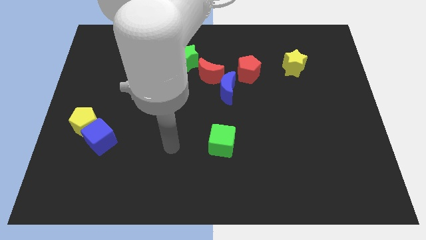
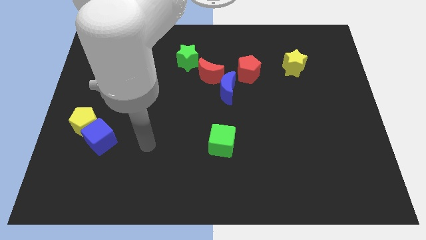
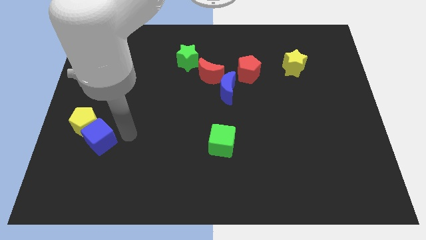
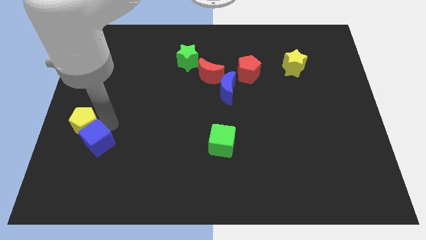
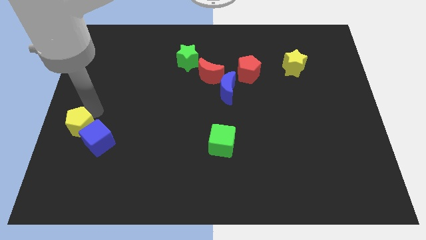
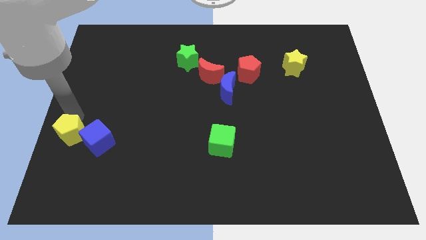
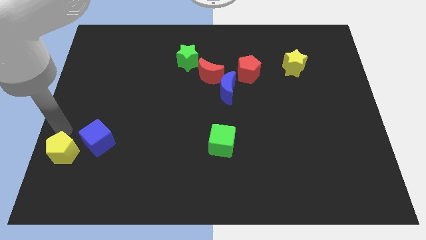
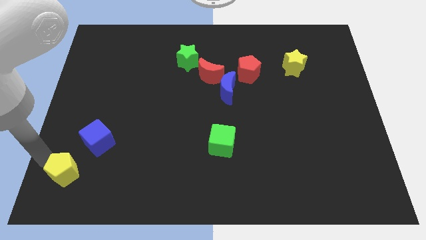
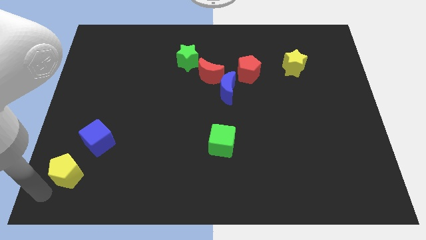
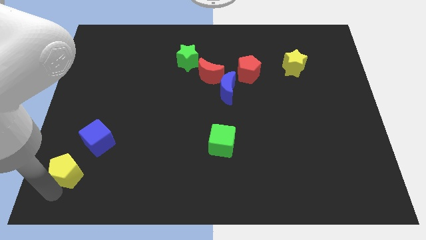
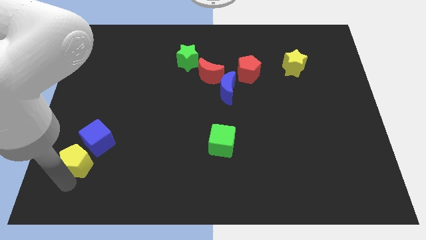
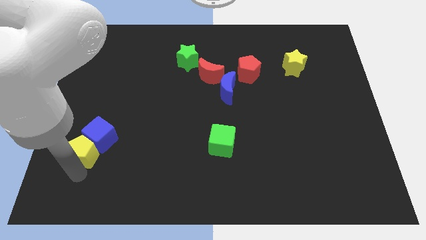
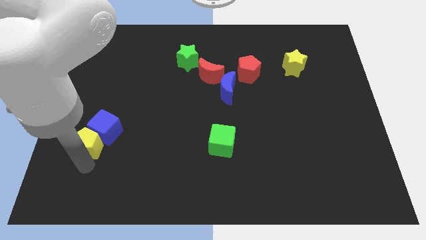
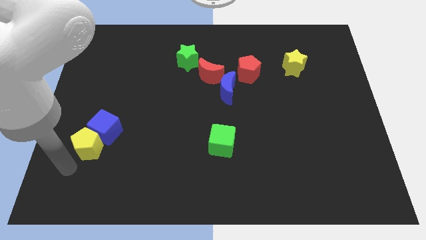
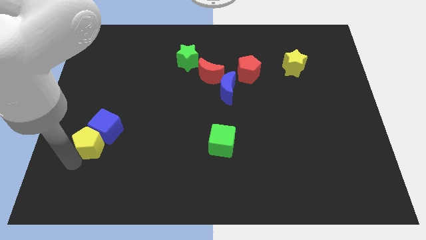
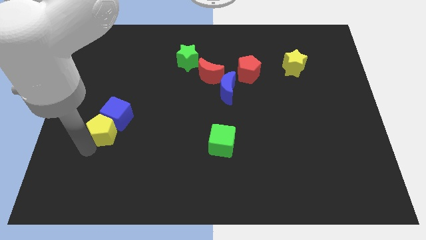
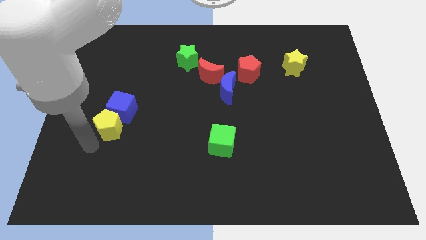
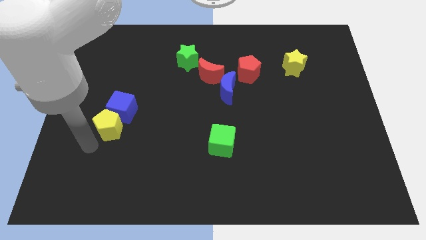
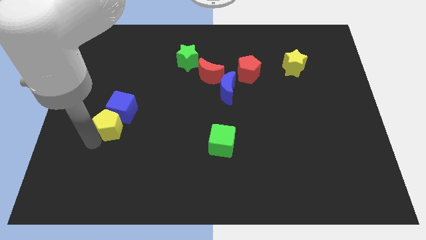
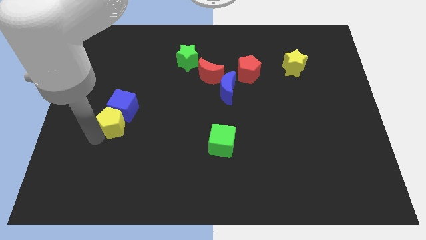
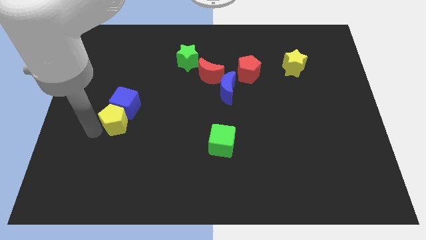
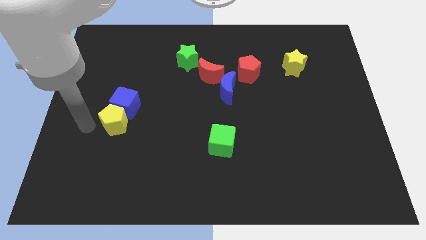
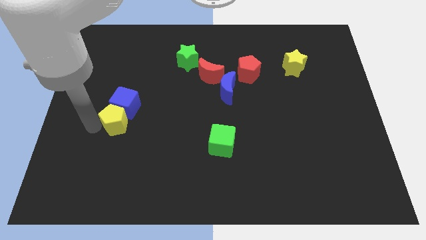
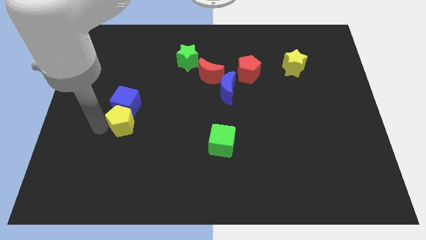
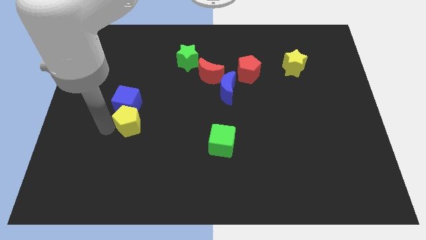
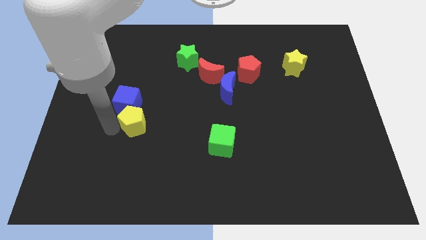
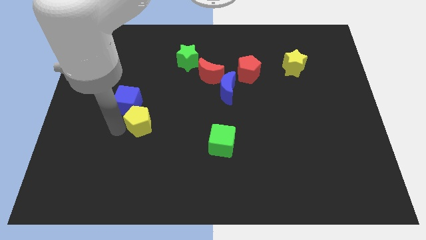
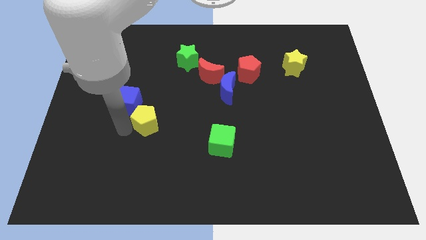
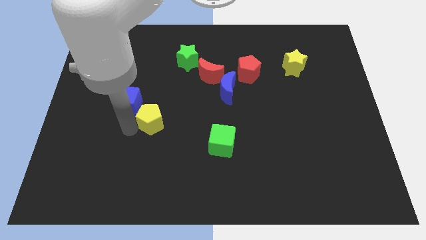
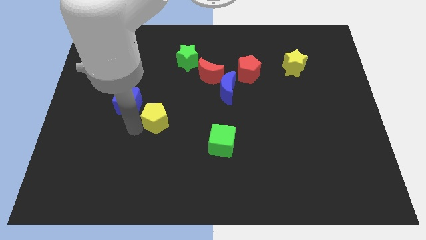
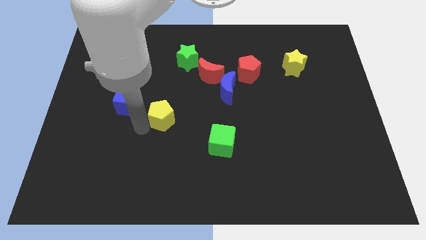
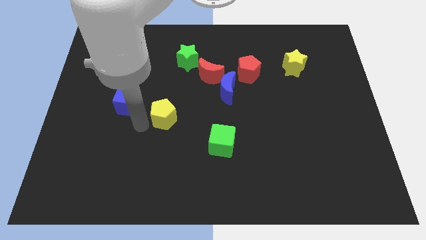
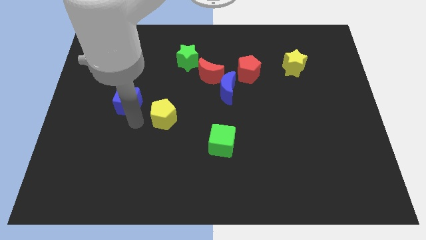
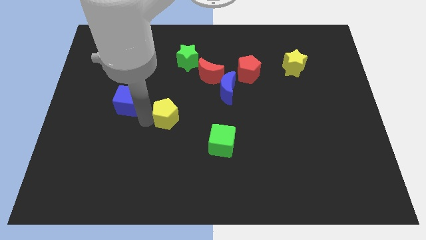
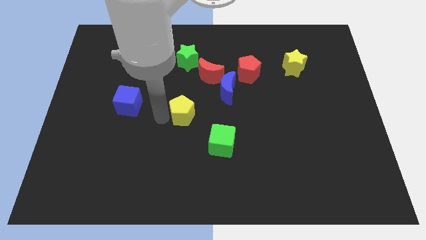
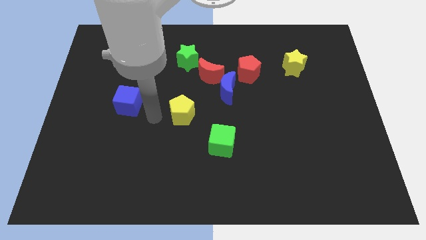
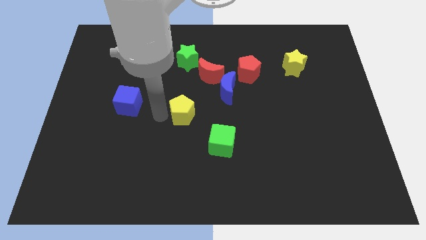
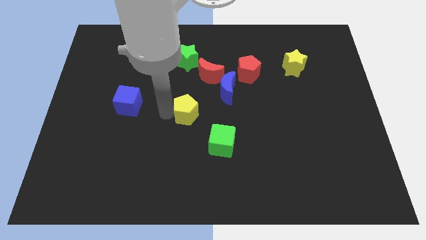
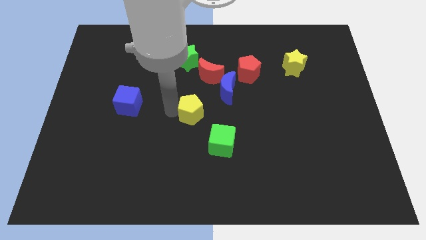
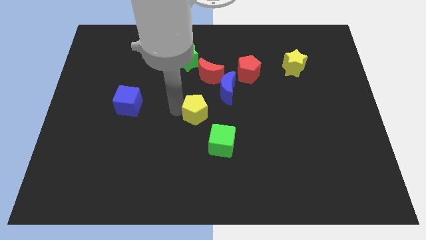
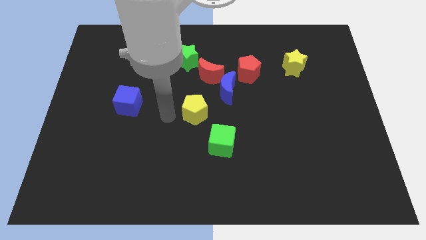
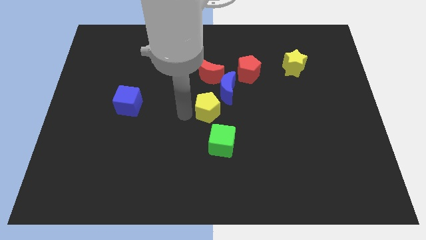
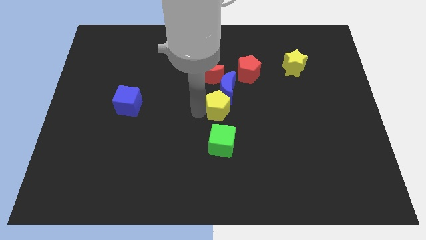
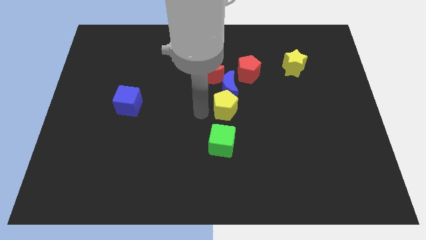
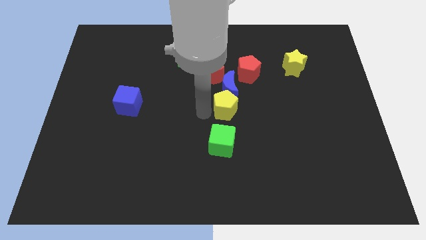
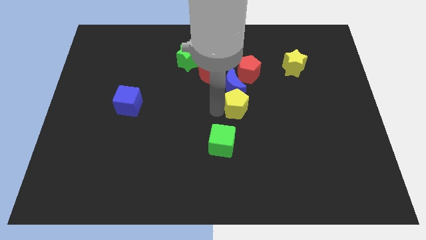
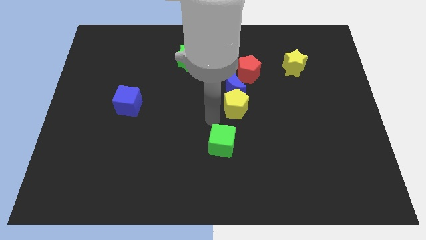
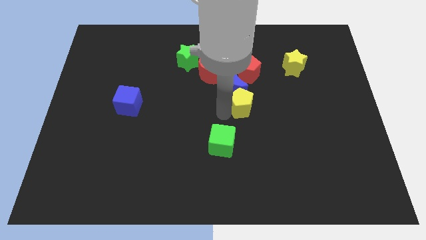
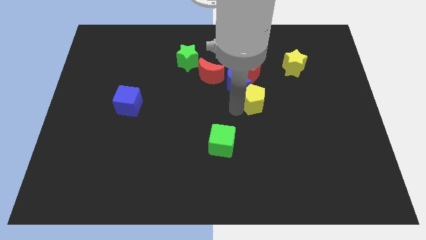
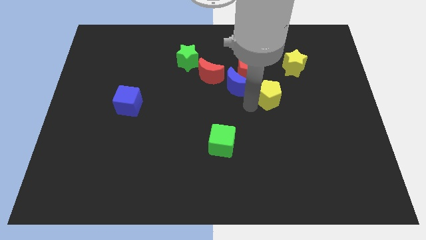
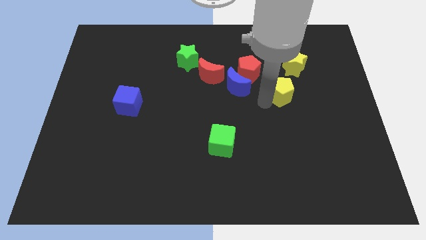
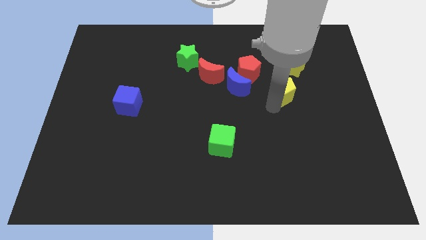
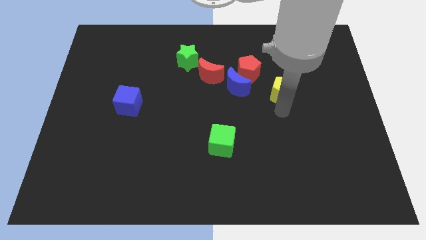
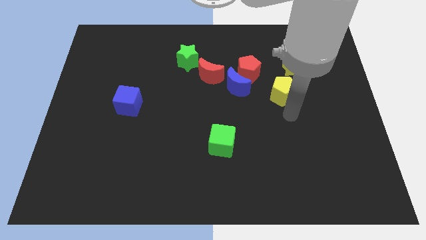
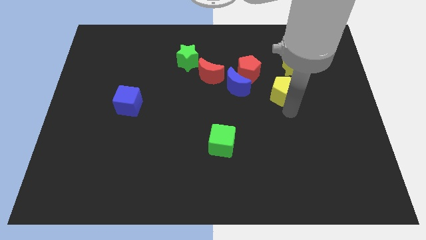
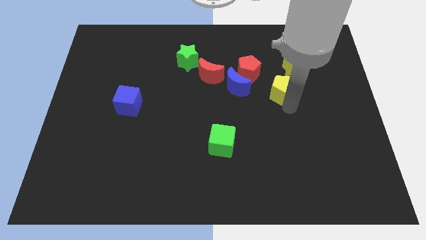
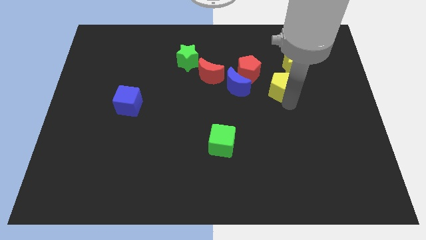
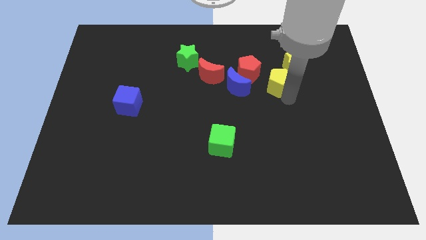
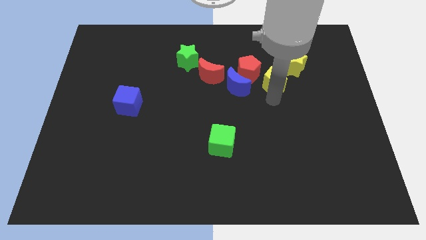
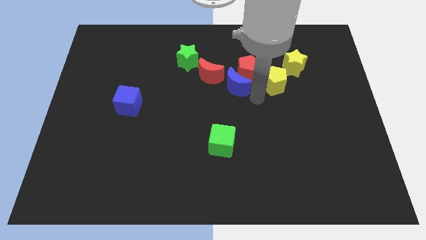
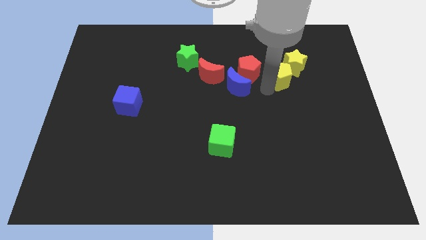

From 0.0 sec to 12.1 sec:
slide the yellow pentagon towards the yellow star

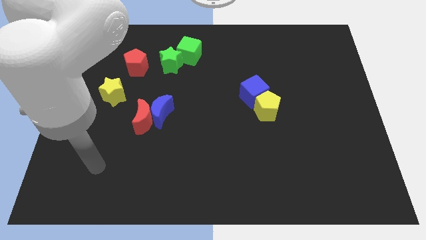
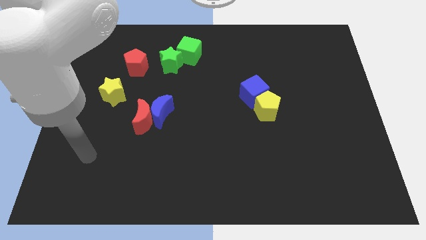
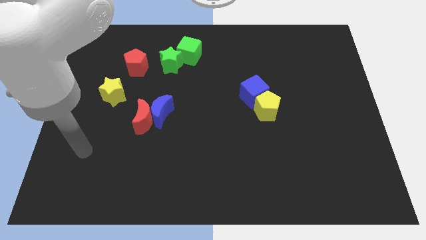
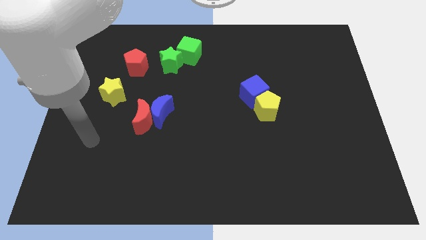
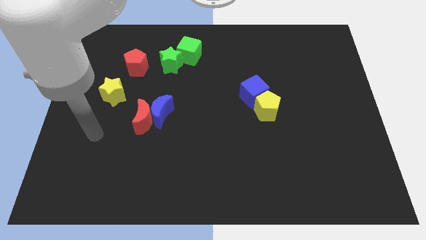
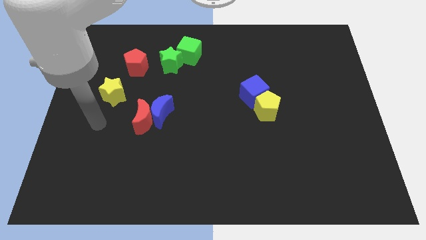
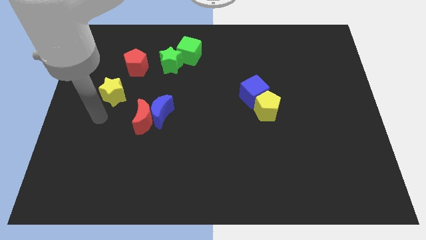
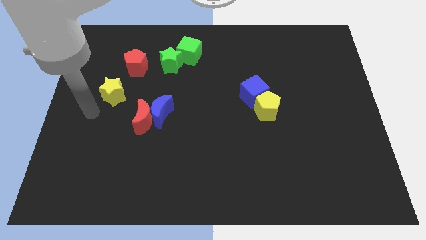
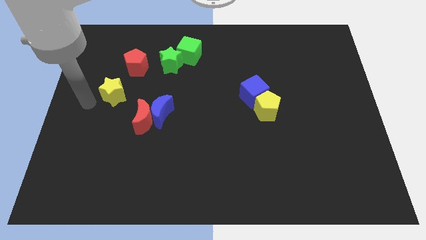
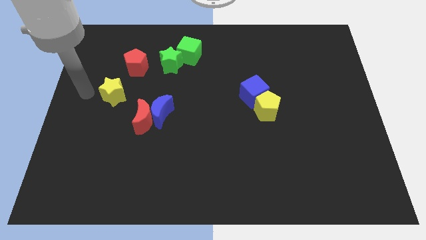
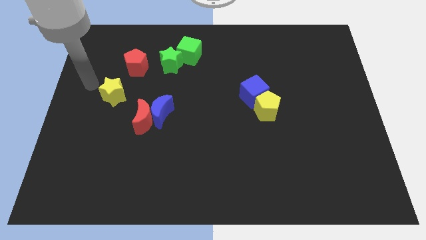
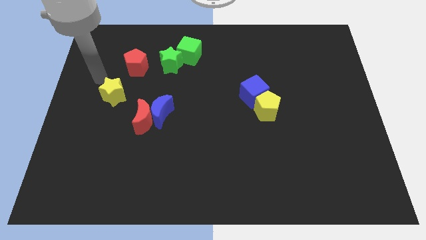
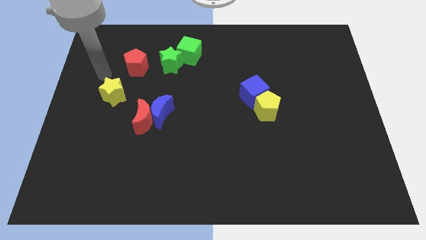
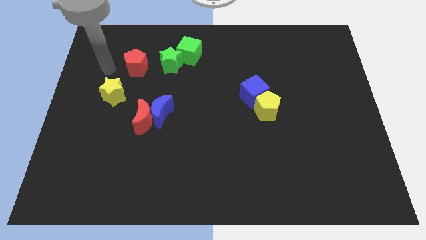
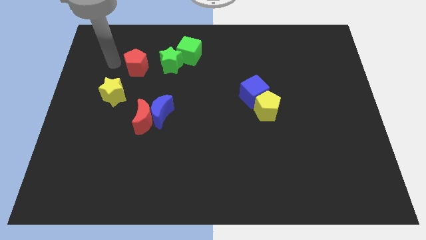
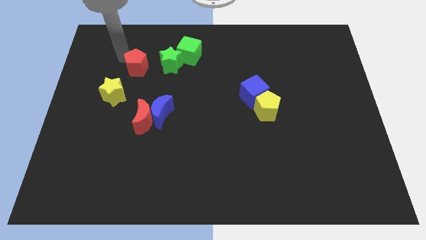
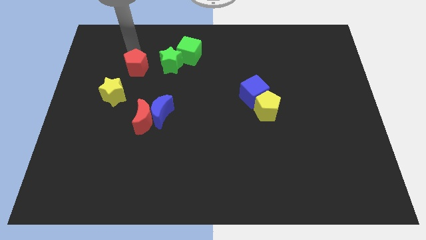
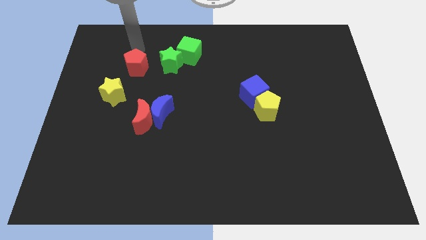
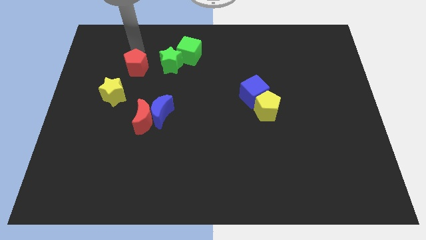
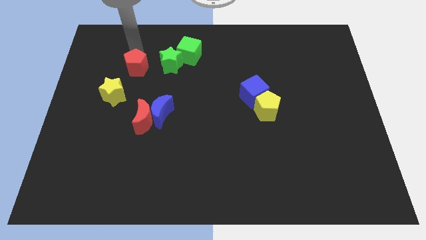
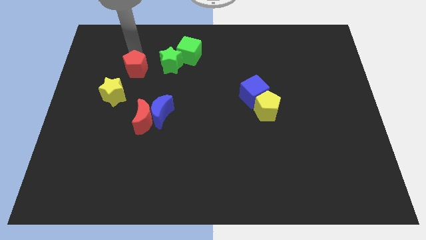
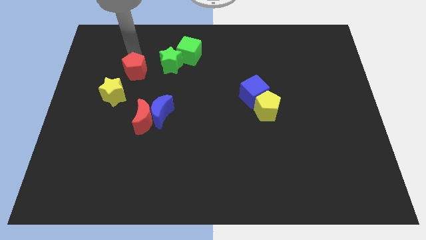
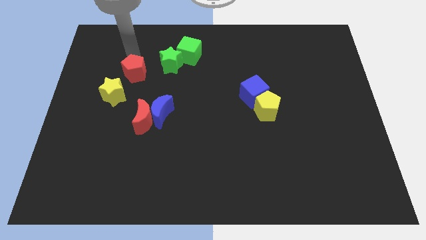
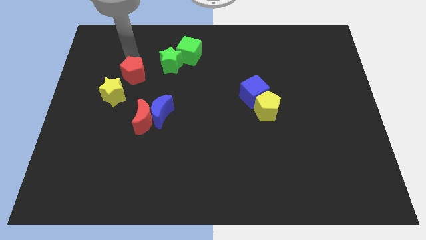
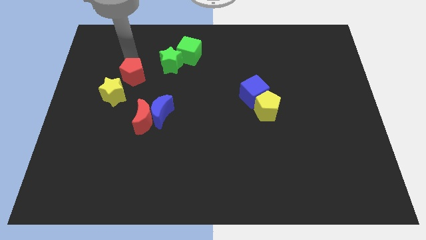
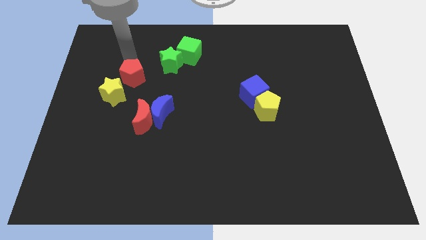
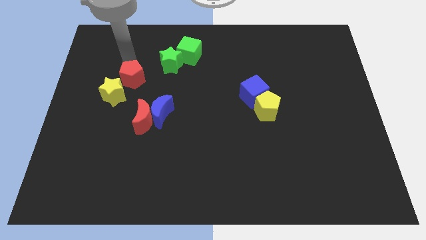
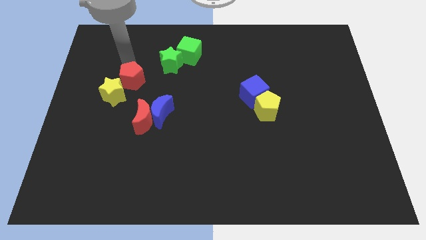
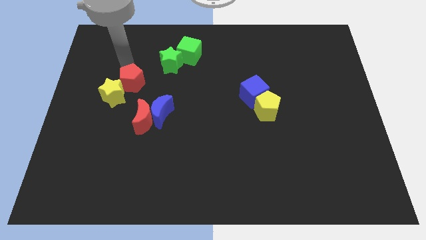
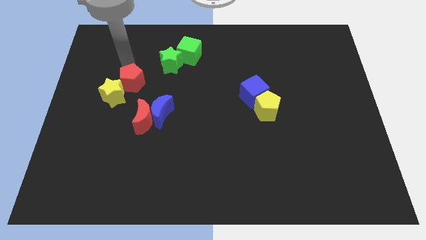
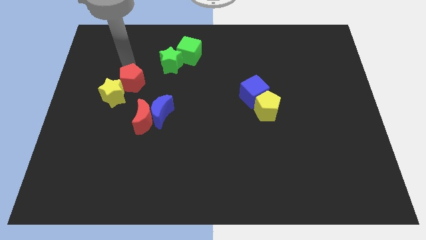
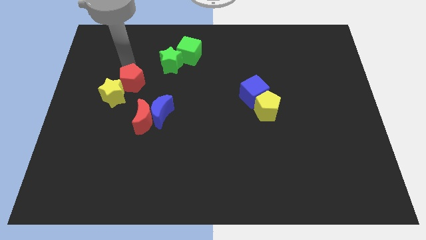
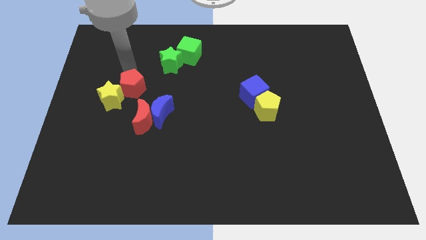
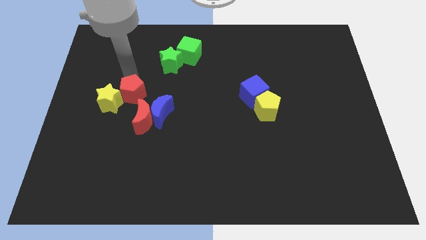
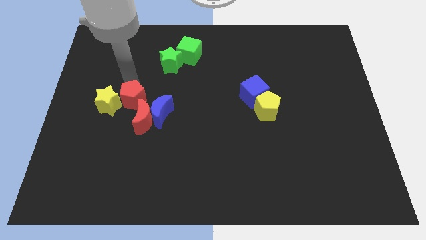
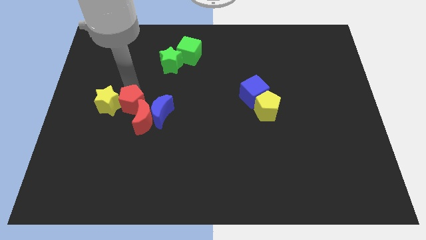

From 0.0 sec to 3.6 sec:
put the red pentagon to the red moon
